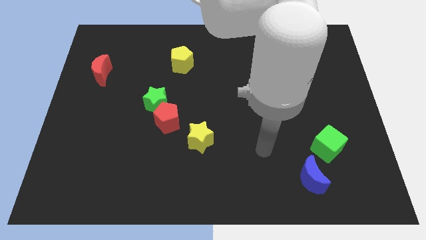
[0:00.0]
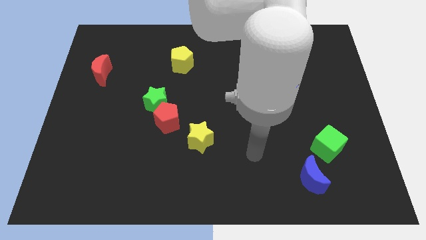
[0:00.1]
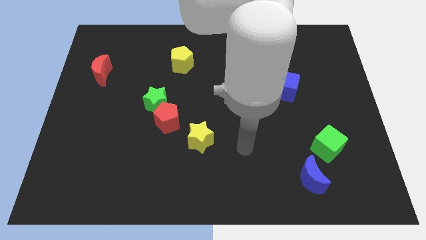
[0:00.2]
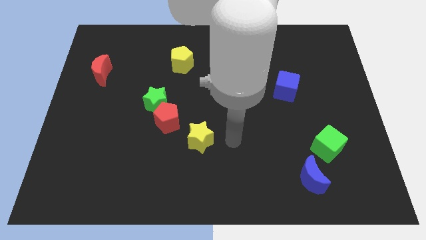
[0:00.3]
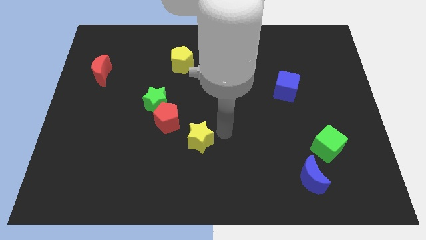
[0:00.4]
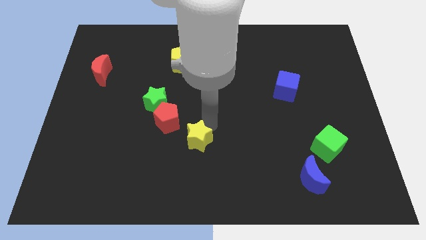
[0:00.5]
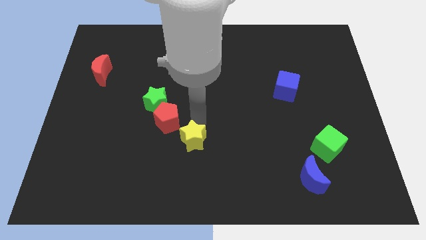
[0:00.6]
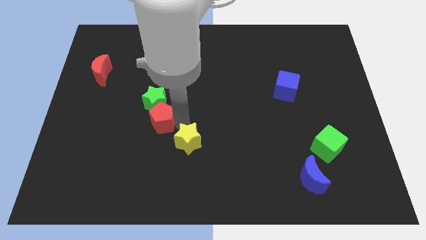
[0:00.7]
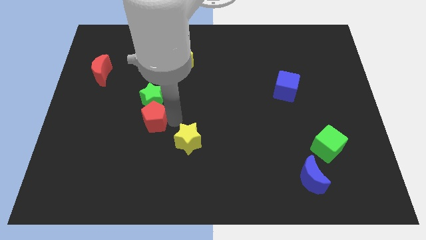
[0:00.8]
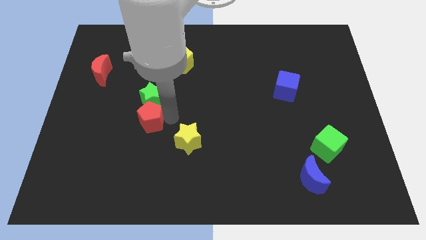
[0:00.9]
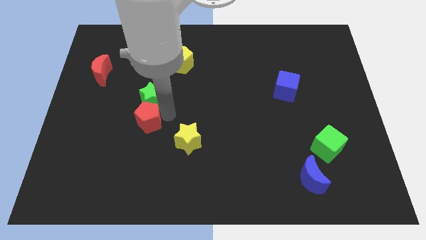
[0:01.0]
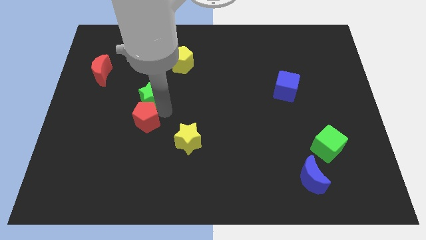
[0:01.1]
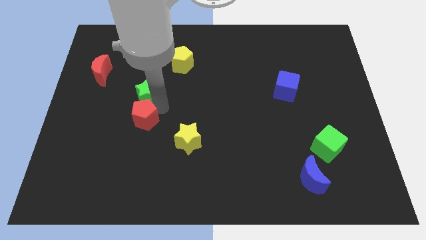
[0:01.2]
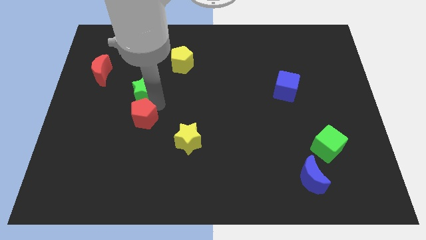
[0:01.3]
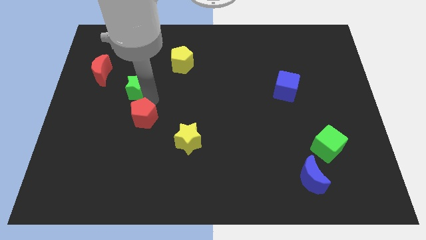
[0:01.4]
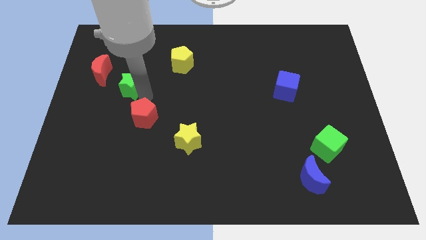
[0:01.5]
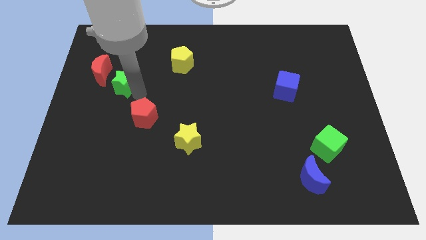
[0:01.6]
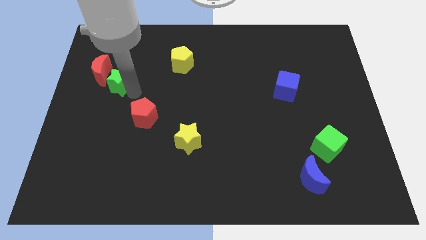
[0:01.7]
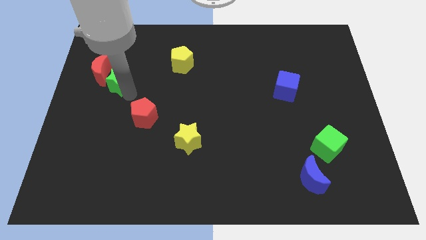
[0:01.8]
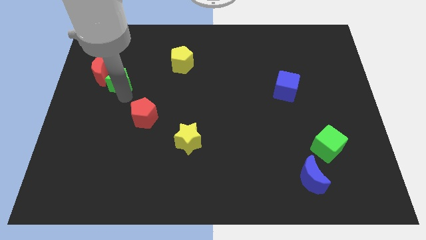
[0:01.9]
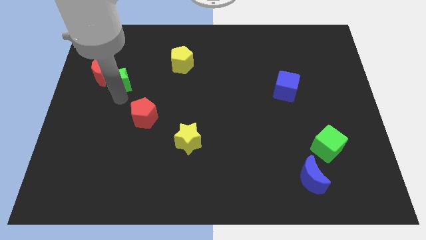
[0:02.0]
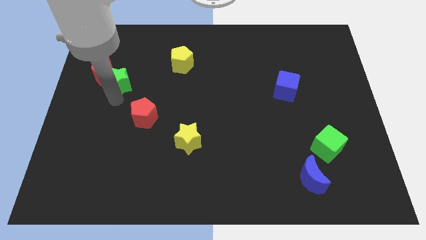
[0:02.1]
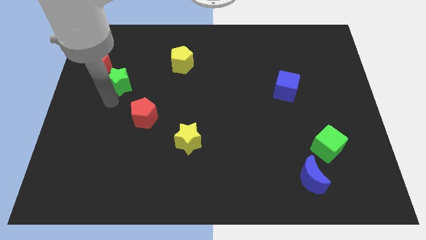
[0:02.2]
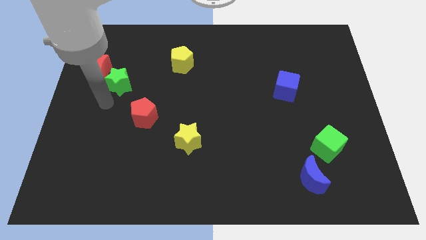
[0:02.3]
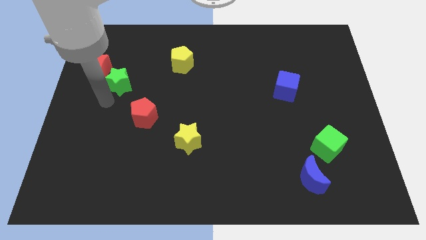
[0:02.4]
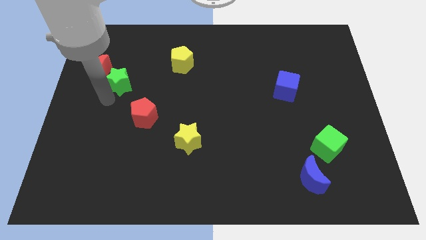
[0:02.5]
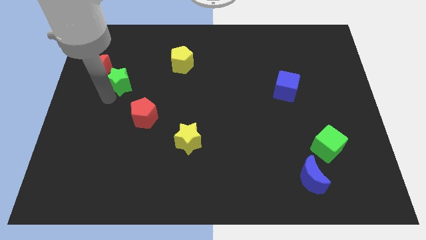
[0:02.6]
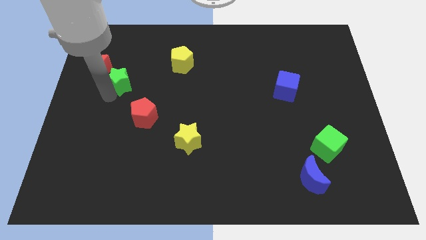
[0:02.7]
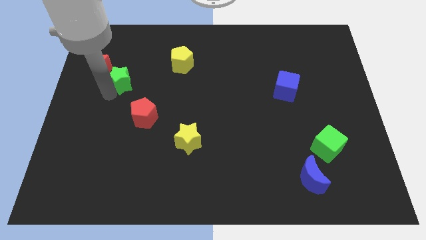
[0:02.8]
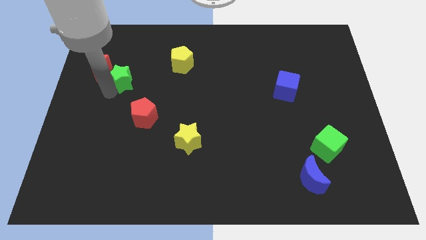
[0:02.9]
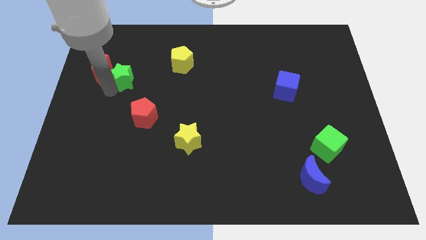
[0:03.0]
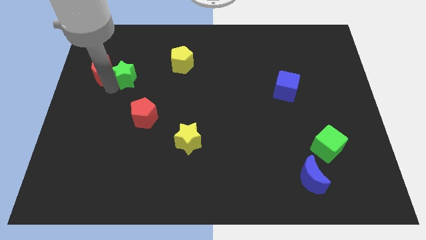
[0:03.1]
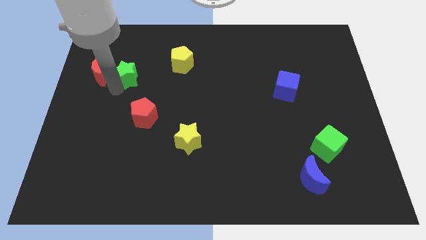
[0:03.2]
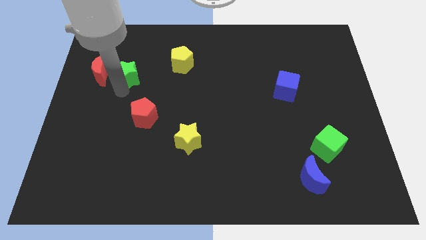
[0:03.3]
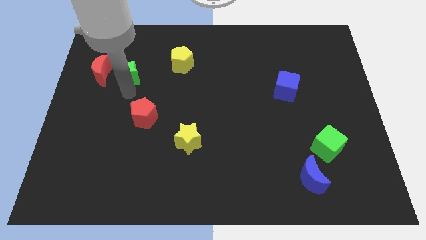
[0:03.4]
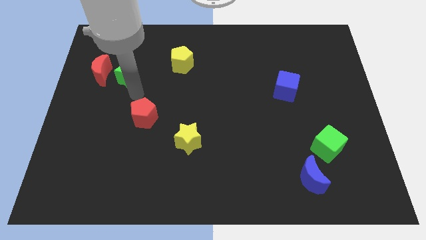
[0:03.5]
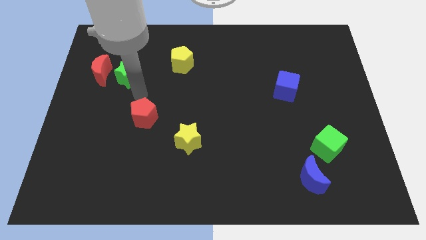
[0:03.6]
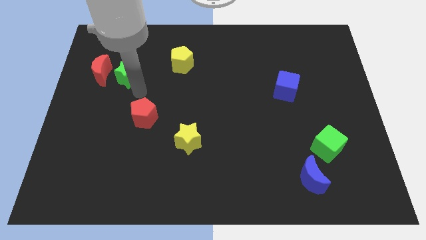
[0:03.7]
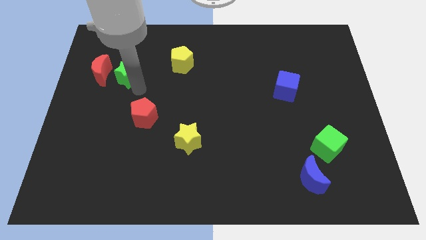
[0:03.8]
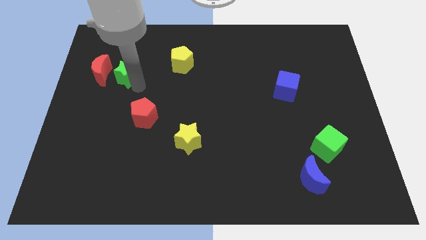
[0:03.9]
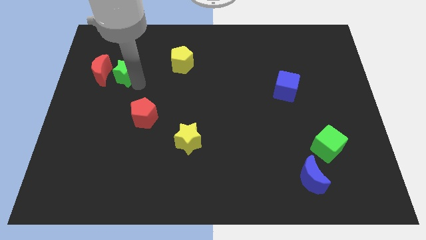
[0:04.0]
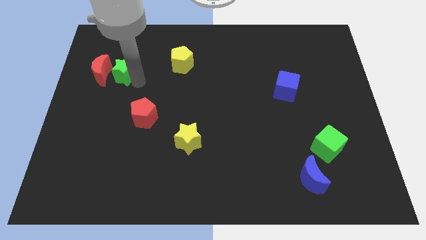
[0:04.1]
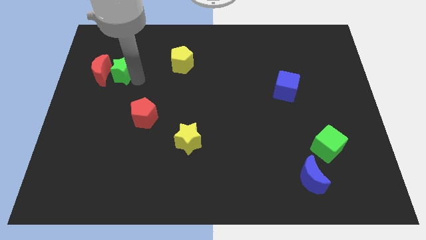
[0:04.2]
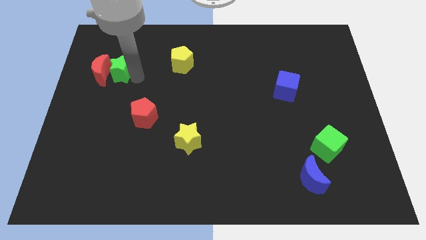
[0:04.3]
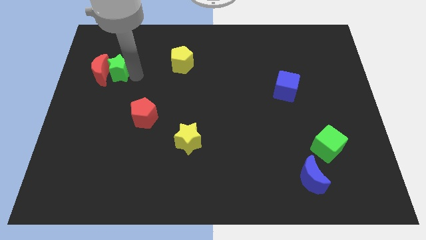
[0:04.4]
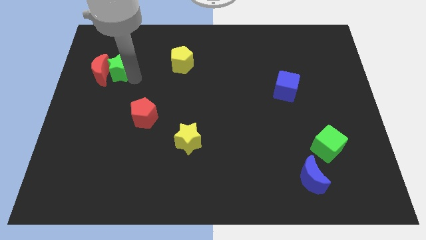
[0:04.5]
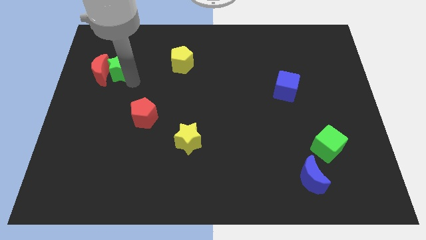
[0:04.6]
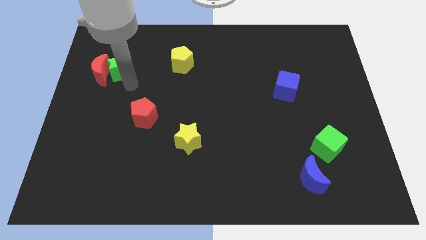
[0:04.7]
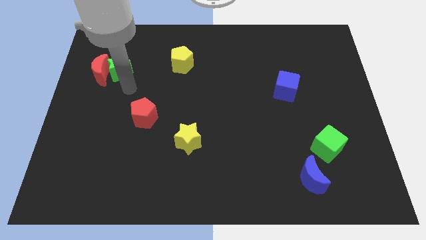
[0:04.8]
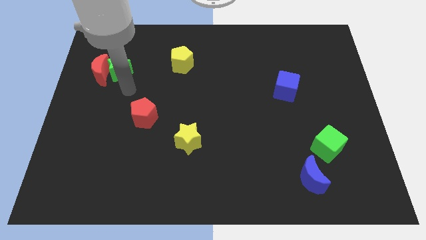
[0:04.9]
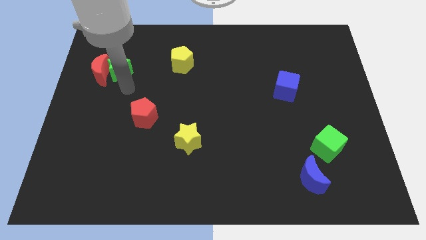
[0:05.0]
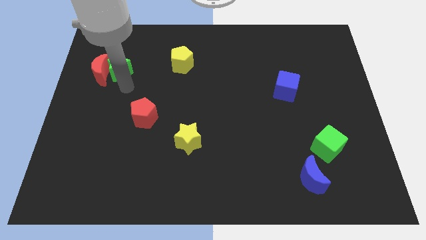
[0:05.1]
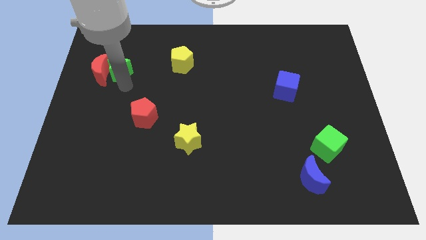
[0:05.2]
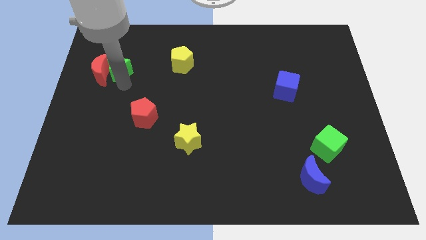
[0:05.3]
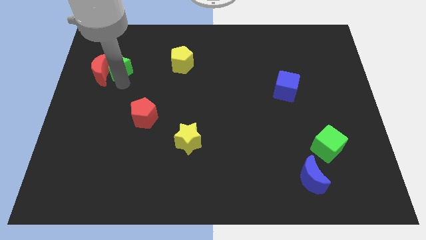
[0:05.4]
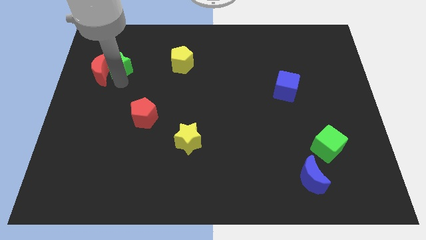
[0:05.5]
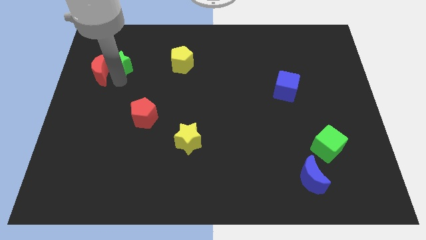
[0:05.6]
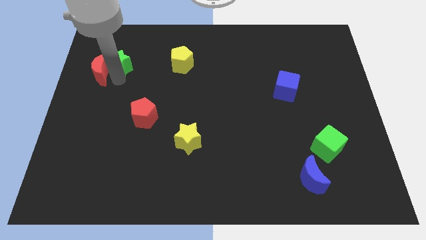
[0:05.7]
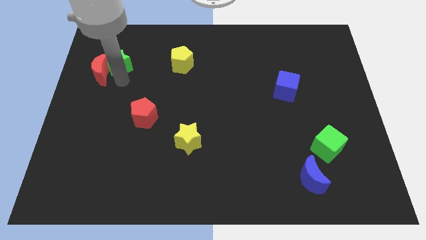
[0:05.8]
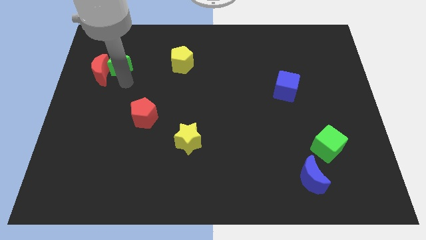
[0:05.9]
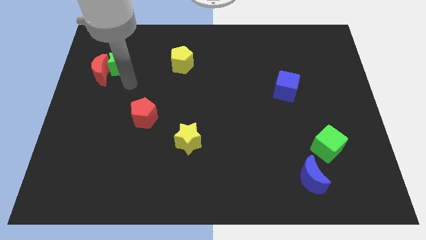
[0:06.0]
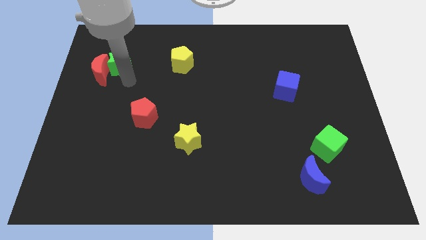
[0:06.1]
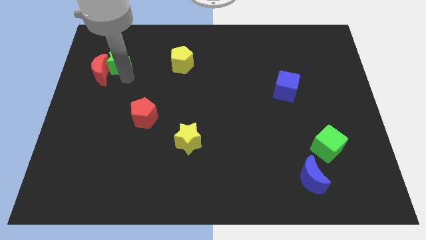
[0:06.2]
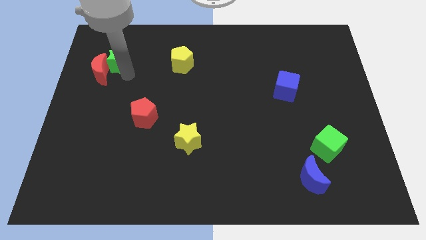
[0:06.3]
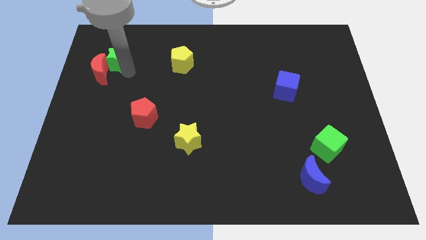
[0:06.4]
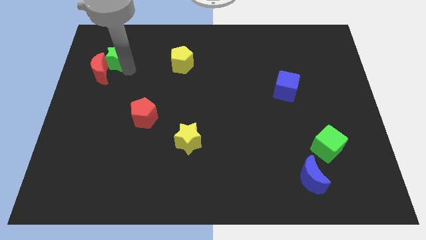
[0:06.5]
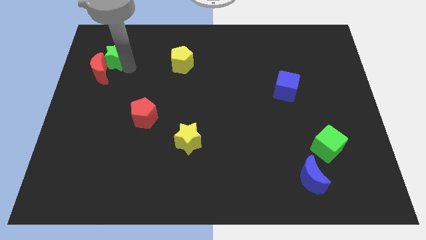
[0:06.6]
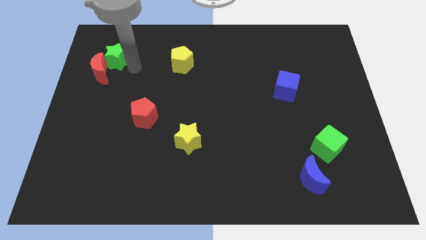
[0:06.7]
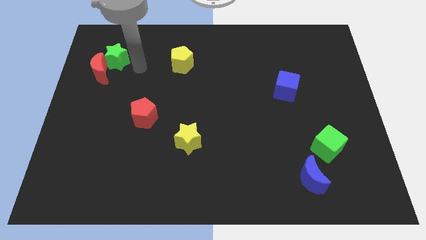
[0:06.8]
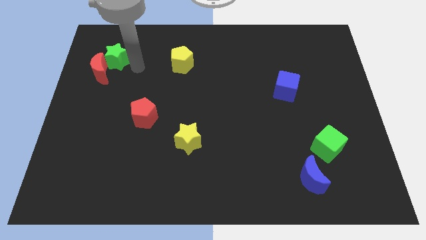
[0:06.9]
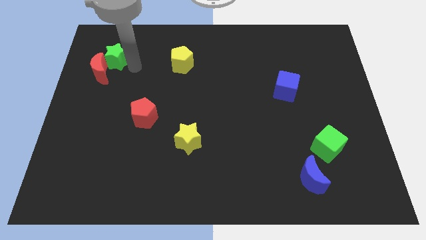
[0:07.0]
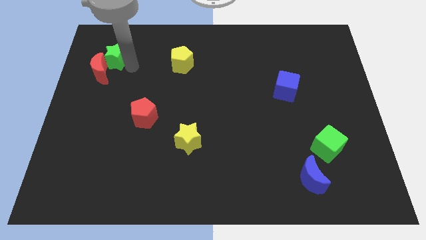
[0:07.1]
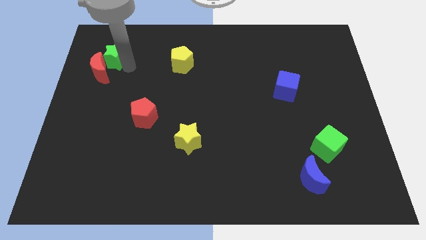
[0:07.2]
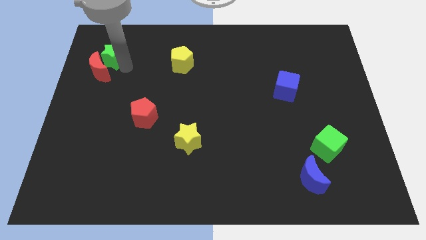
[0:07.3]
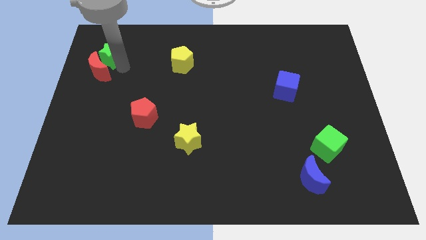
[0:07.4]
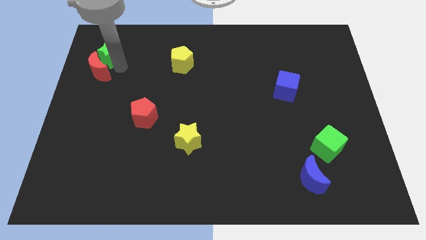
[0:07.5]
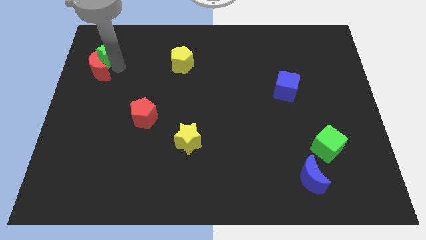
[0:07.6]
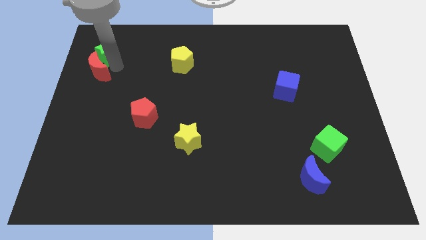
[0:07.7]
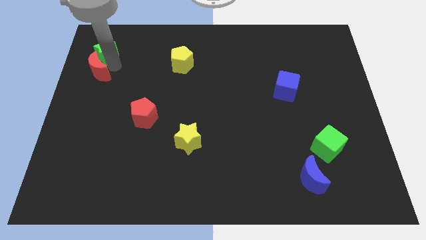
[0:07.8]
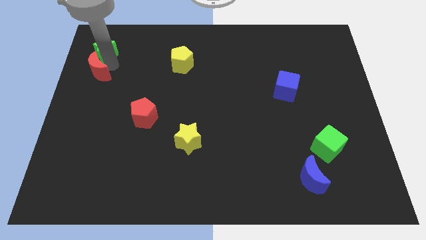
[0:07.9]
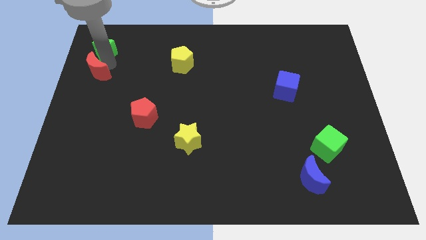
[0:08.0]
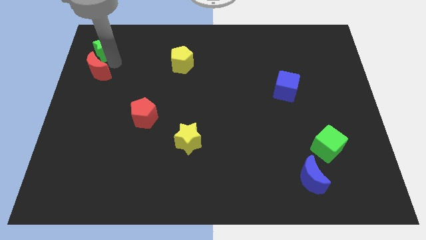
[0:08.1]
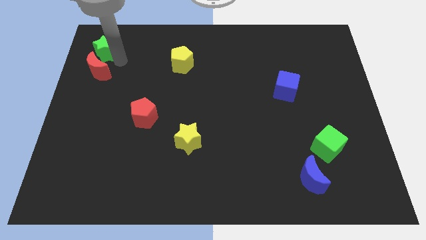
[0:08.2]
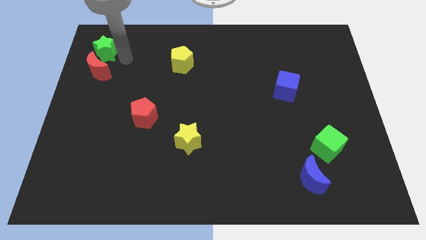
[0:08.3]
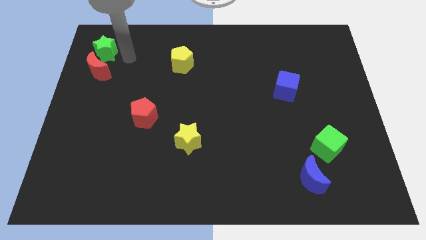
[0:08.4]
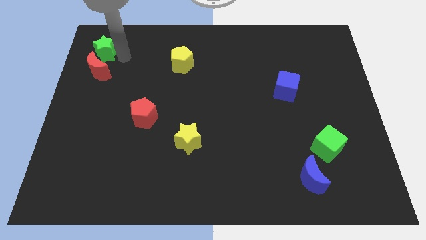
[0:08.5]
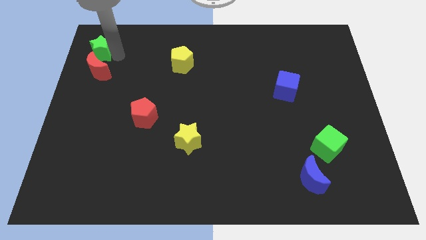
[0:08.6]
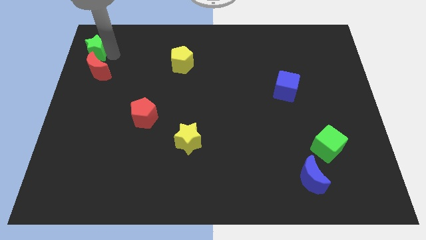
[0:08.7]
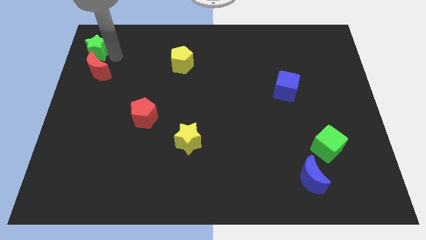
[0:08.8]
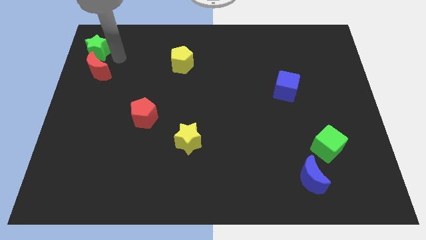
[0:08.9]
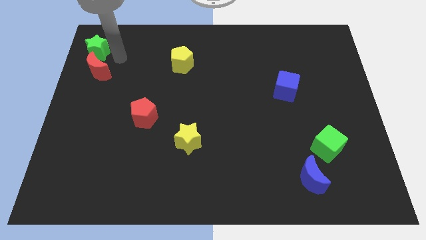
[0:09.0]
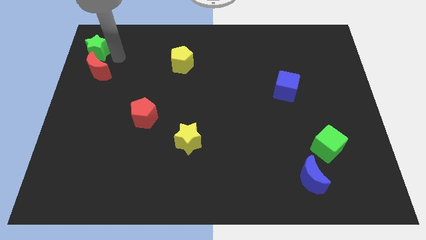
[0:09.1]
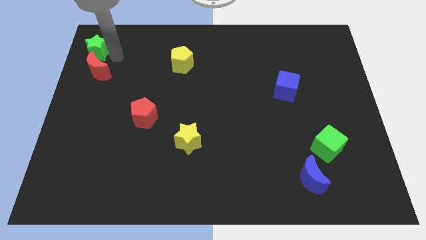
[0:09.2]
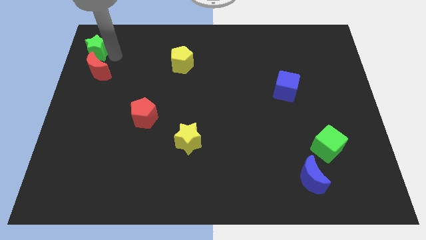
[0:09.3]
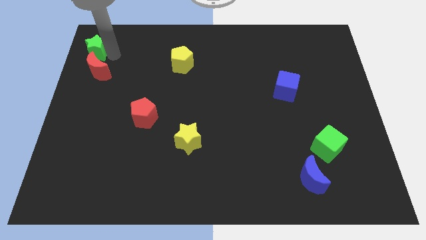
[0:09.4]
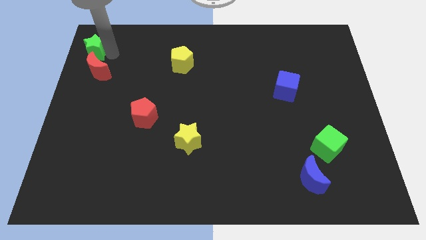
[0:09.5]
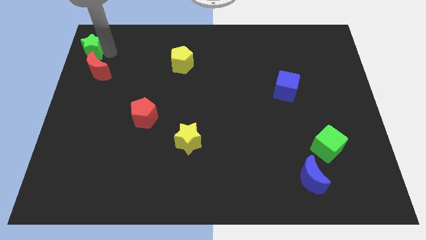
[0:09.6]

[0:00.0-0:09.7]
move the green star to the top left
